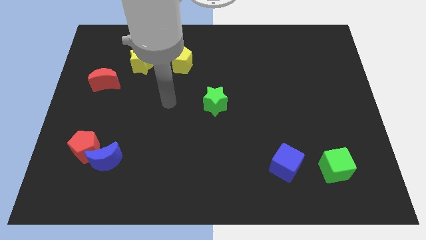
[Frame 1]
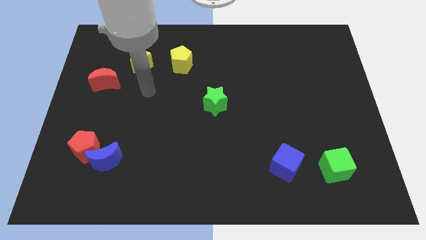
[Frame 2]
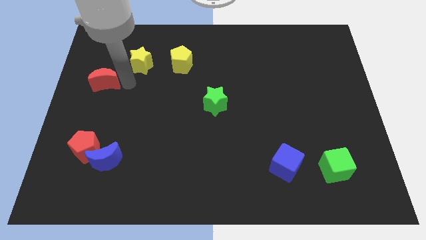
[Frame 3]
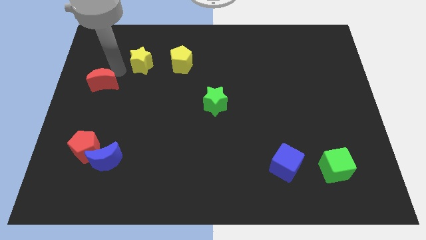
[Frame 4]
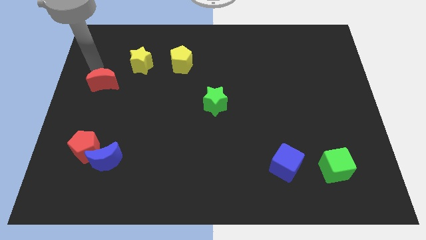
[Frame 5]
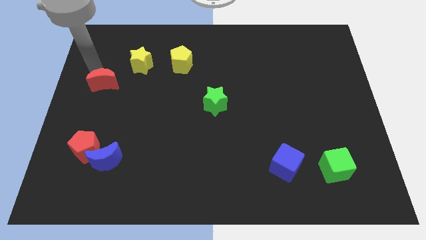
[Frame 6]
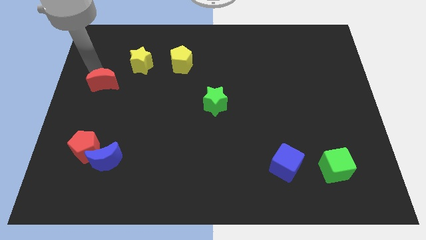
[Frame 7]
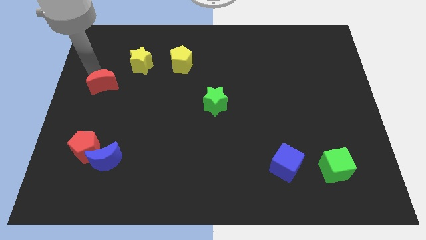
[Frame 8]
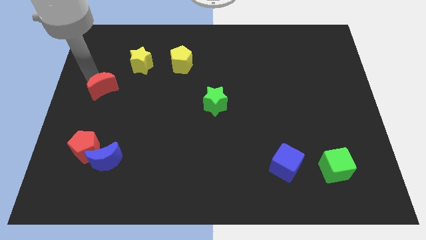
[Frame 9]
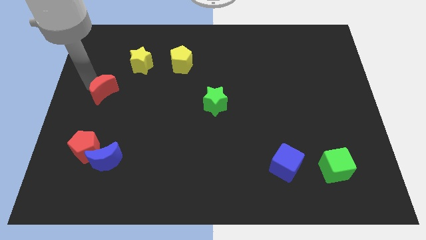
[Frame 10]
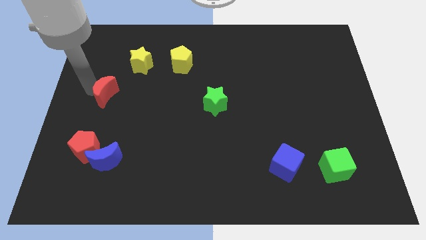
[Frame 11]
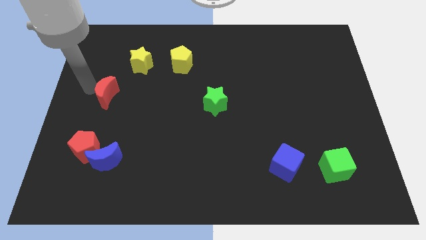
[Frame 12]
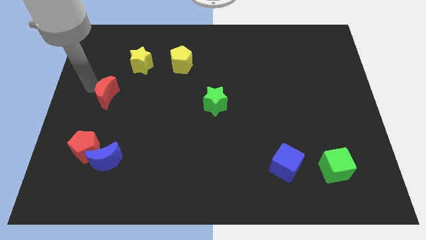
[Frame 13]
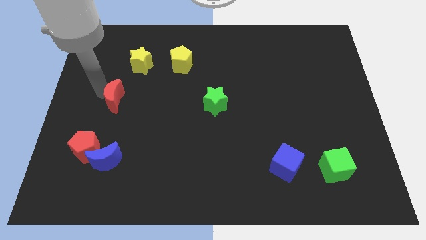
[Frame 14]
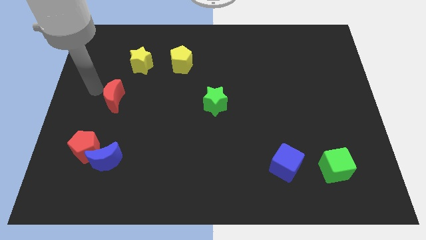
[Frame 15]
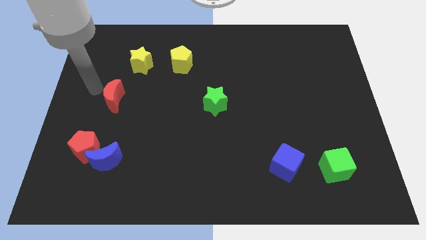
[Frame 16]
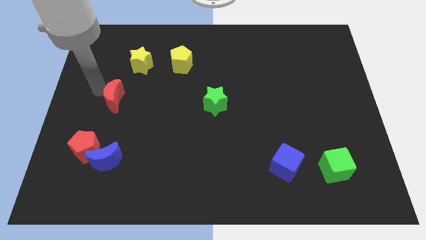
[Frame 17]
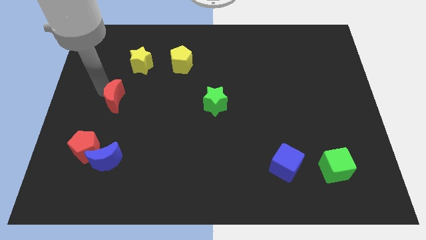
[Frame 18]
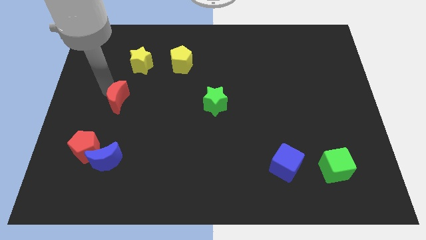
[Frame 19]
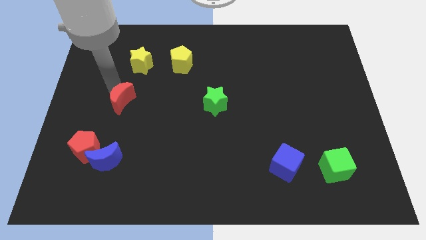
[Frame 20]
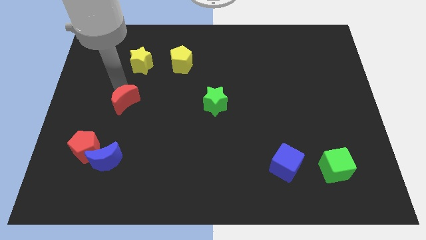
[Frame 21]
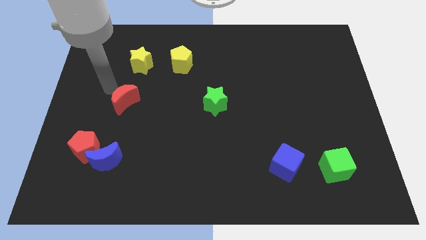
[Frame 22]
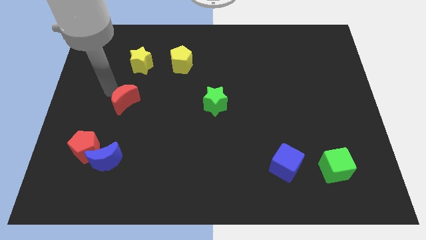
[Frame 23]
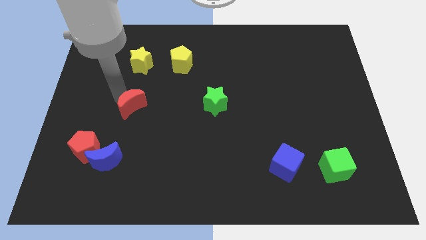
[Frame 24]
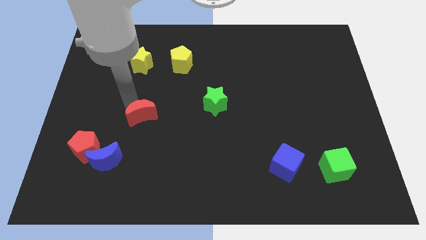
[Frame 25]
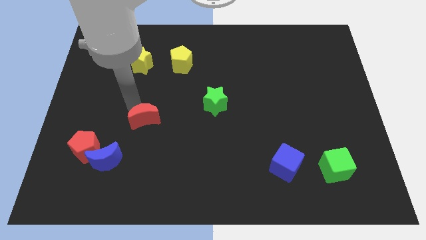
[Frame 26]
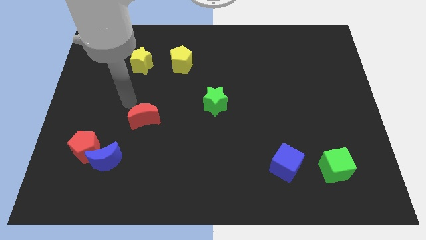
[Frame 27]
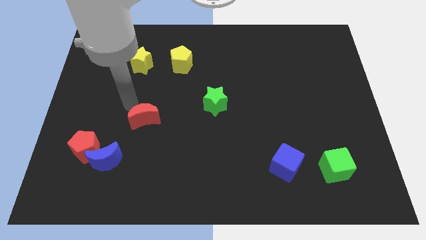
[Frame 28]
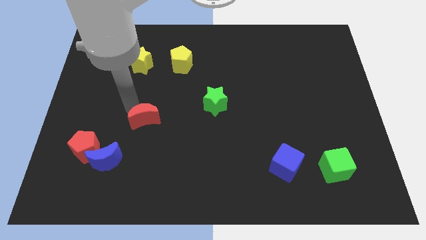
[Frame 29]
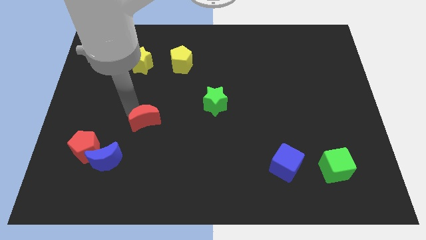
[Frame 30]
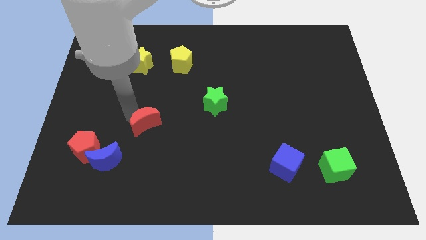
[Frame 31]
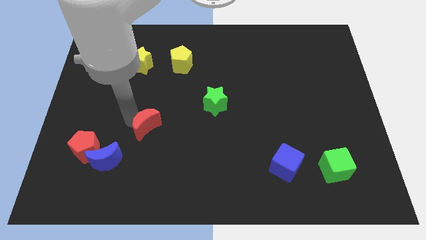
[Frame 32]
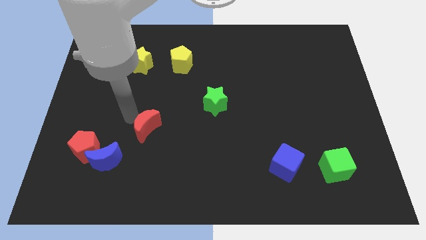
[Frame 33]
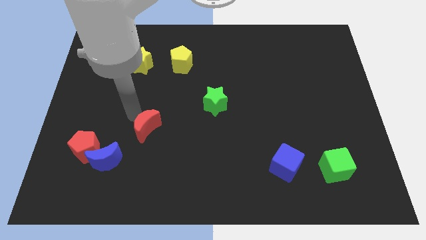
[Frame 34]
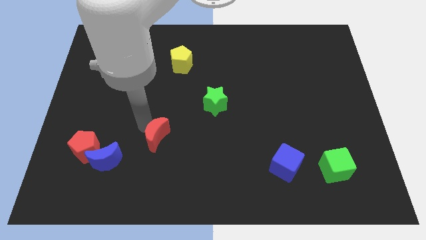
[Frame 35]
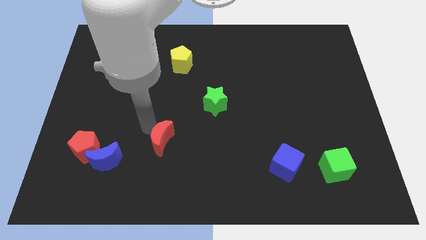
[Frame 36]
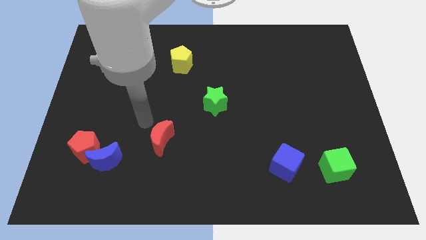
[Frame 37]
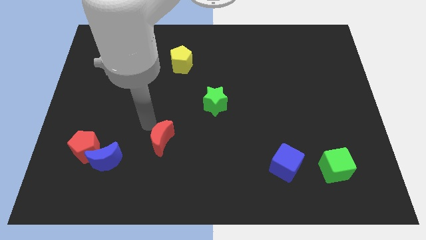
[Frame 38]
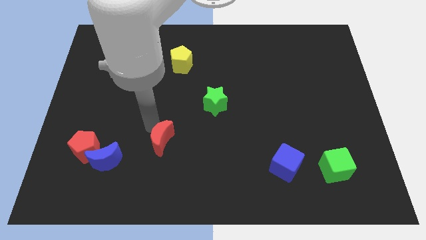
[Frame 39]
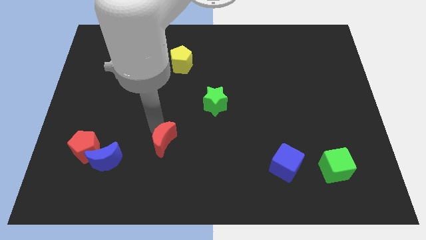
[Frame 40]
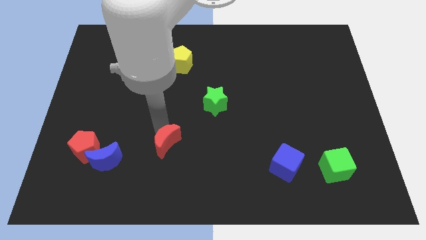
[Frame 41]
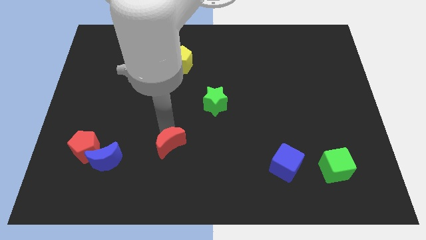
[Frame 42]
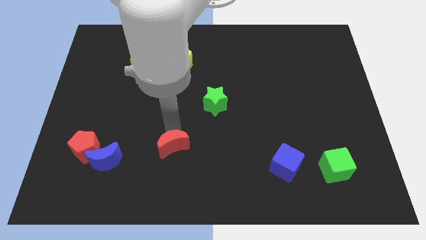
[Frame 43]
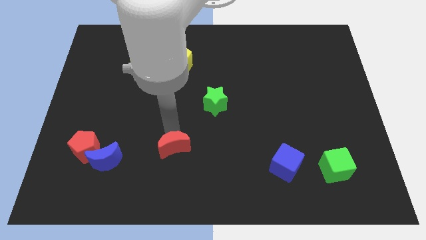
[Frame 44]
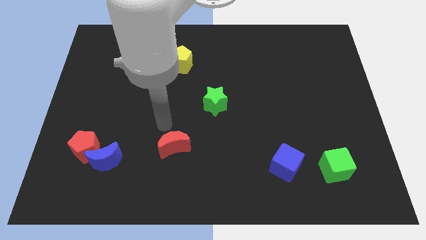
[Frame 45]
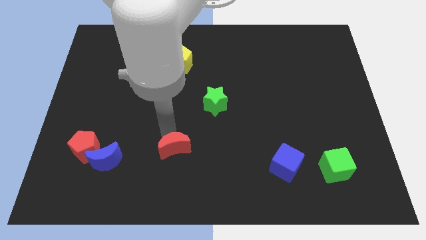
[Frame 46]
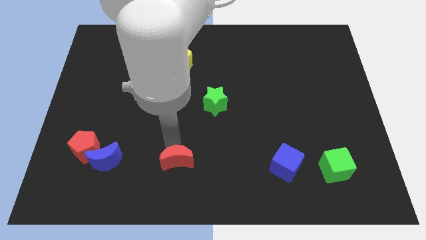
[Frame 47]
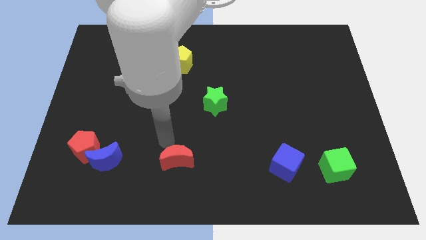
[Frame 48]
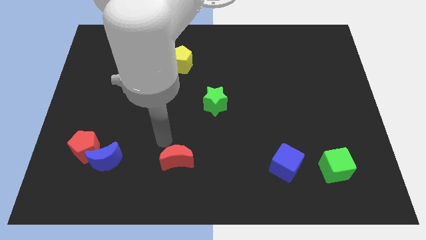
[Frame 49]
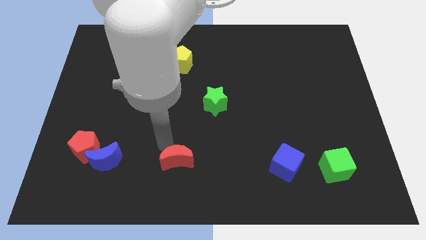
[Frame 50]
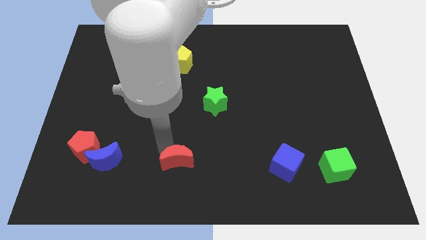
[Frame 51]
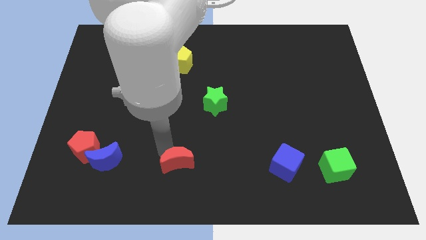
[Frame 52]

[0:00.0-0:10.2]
slide the red moon to the bottom side

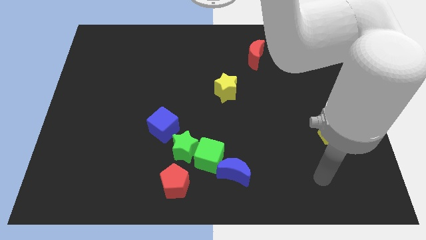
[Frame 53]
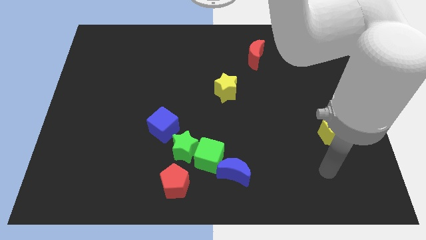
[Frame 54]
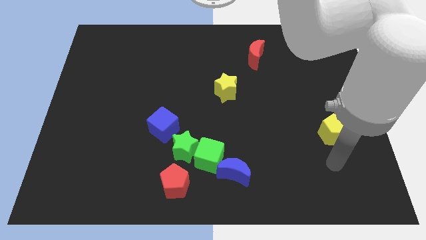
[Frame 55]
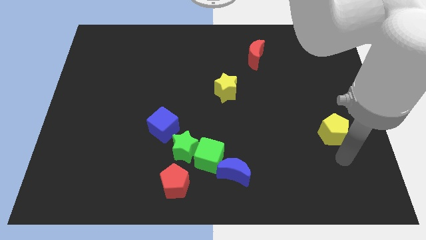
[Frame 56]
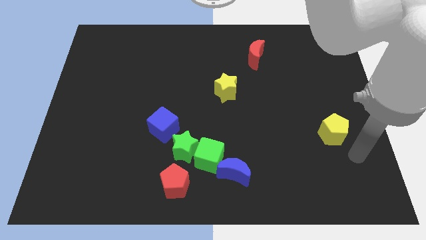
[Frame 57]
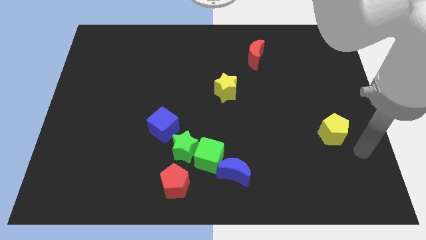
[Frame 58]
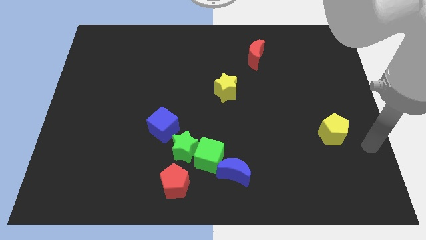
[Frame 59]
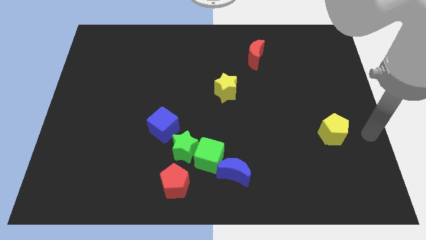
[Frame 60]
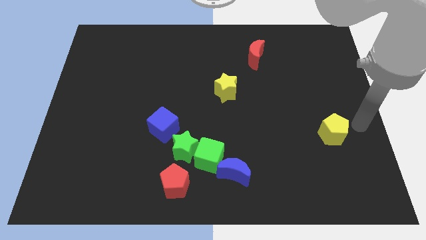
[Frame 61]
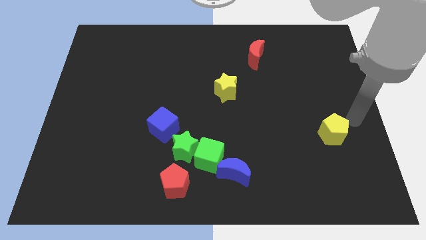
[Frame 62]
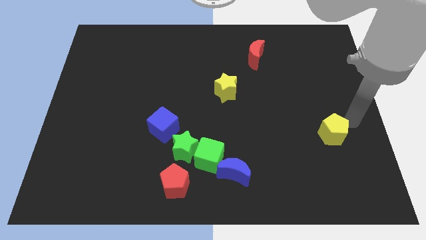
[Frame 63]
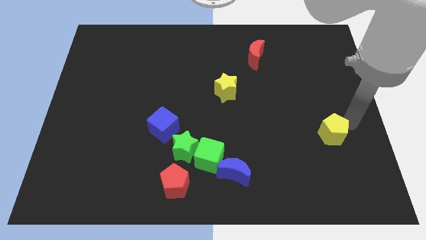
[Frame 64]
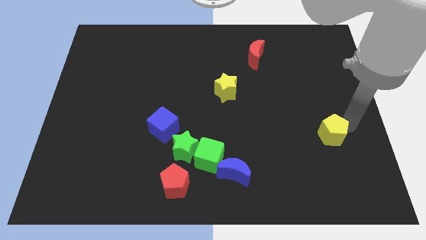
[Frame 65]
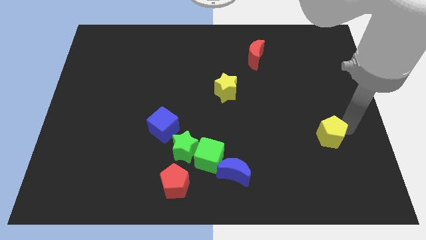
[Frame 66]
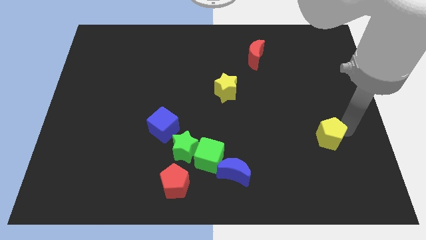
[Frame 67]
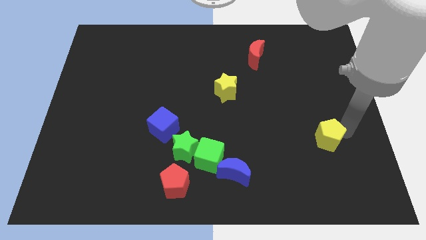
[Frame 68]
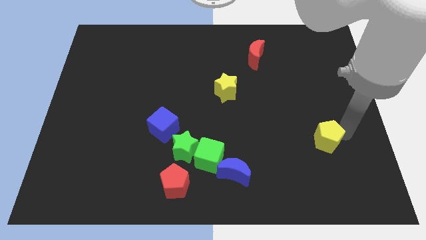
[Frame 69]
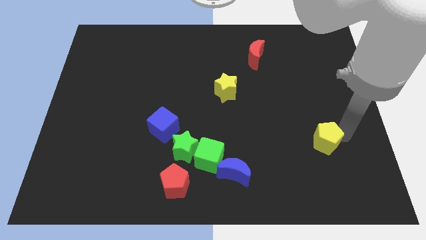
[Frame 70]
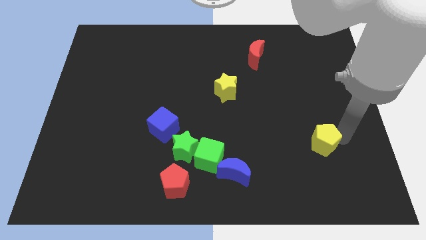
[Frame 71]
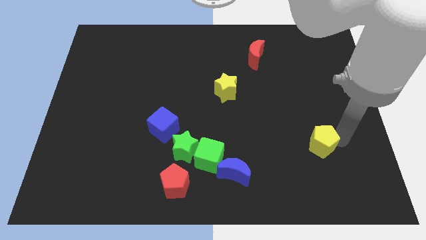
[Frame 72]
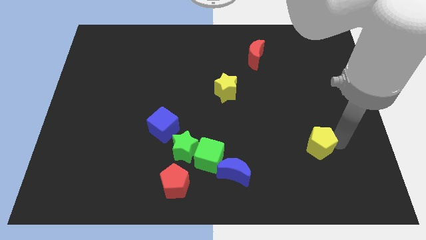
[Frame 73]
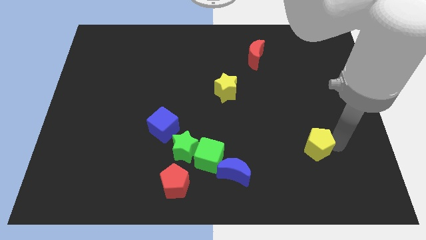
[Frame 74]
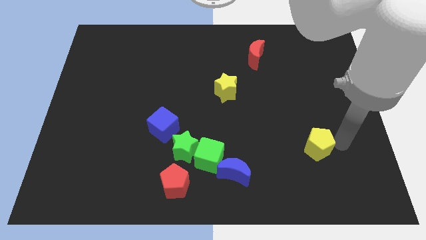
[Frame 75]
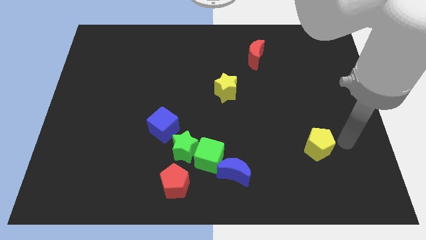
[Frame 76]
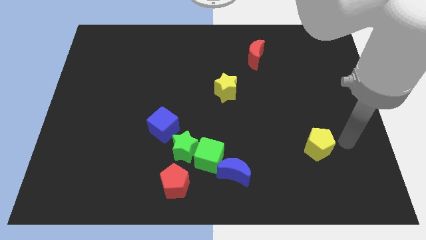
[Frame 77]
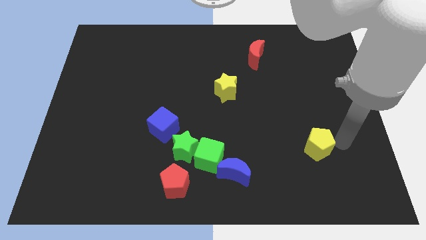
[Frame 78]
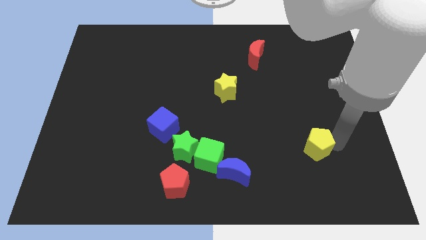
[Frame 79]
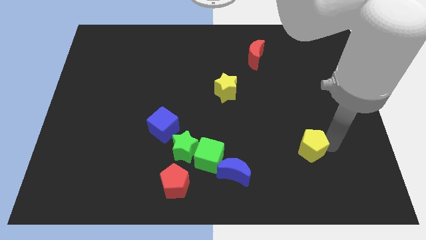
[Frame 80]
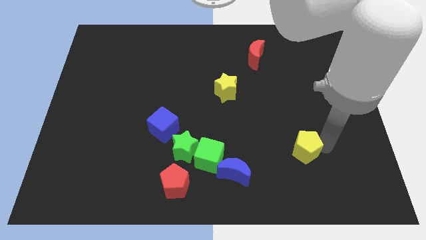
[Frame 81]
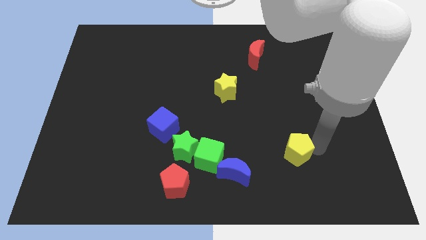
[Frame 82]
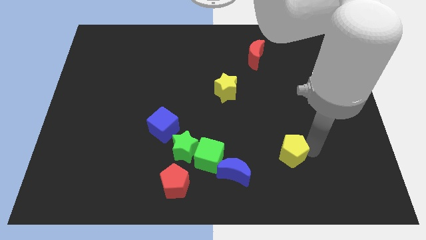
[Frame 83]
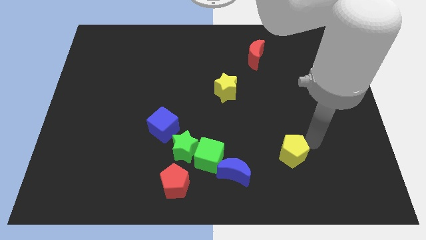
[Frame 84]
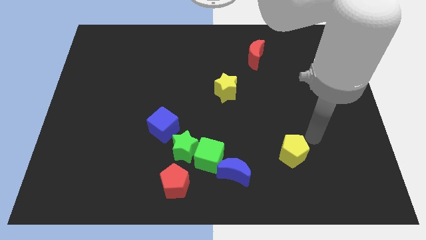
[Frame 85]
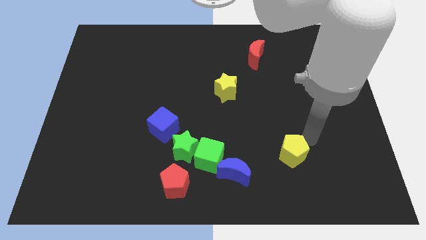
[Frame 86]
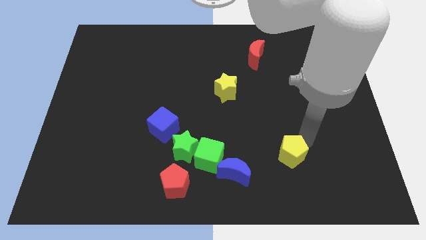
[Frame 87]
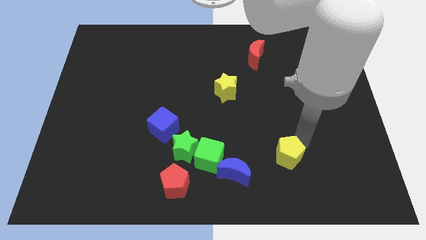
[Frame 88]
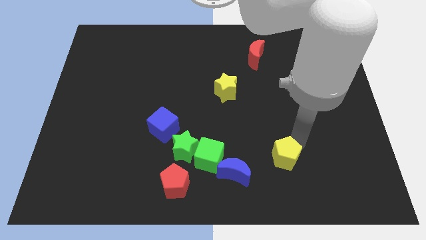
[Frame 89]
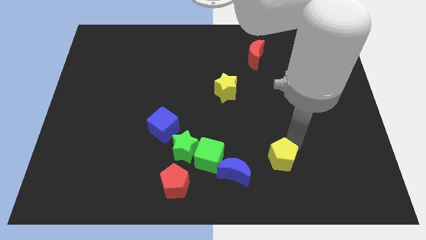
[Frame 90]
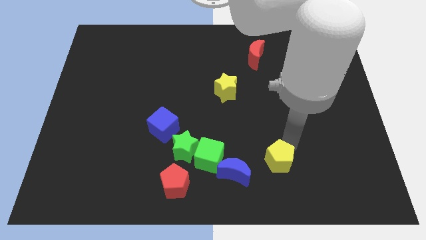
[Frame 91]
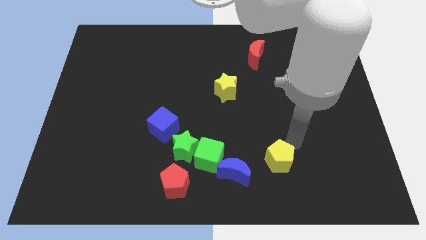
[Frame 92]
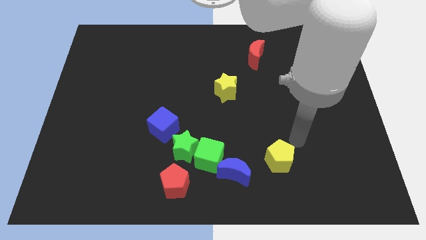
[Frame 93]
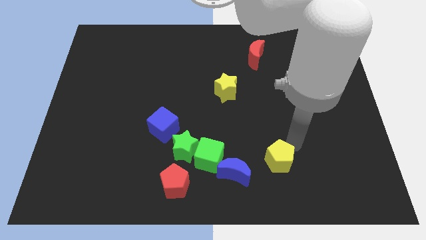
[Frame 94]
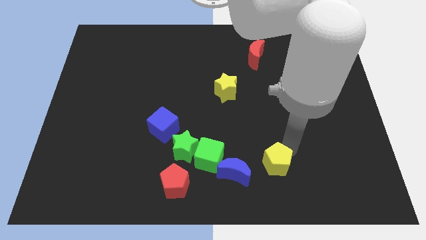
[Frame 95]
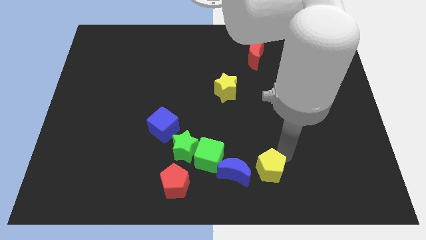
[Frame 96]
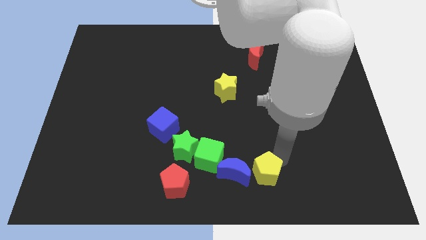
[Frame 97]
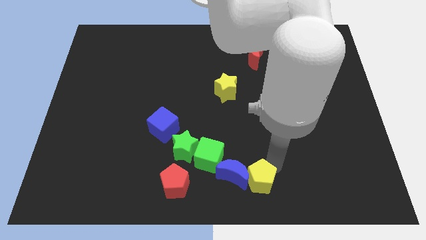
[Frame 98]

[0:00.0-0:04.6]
slide the yellow pentagon to the bottom
